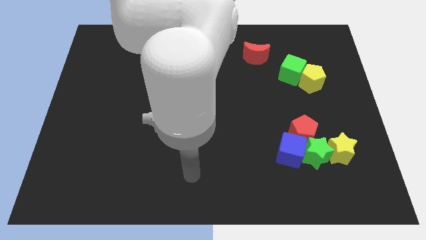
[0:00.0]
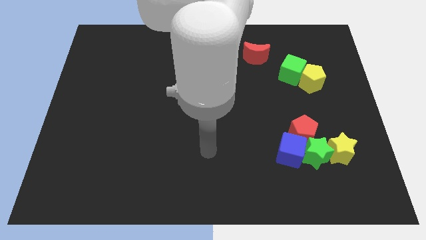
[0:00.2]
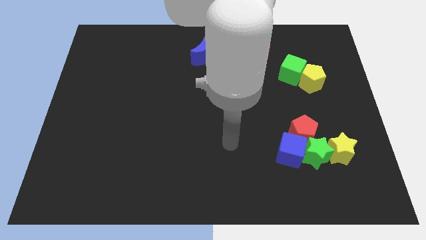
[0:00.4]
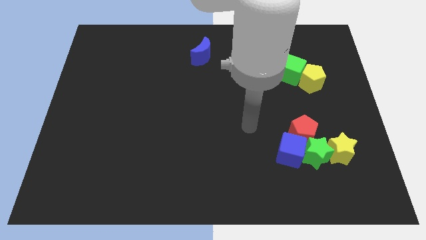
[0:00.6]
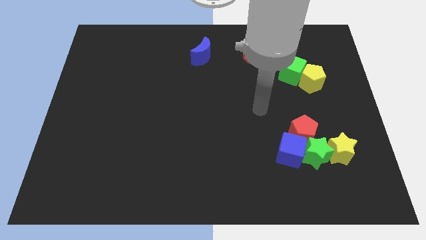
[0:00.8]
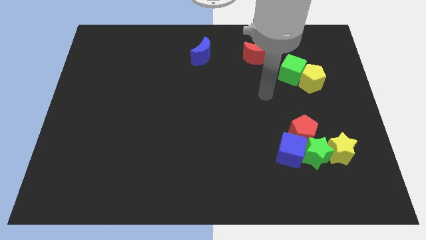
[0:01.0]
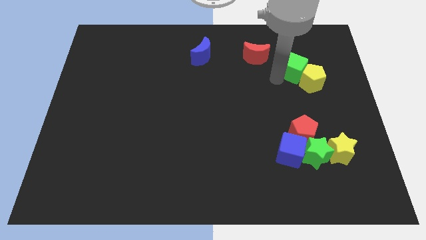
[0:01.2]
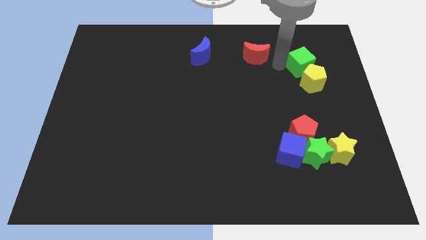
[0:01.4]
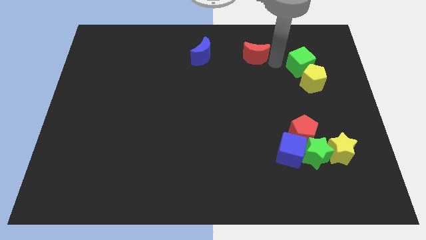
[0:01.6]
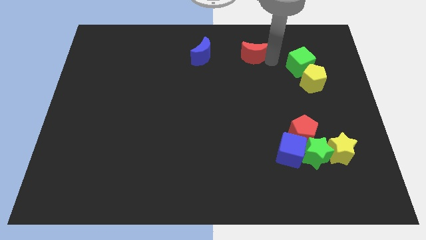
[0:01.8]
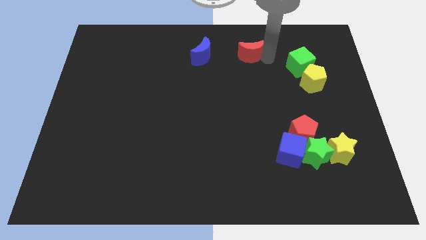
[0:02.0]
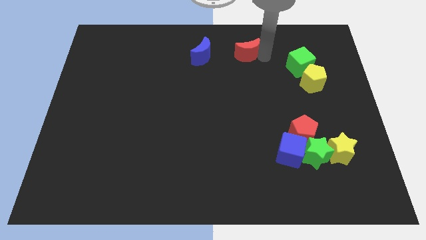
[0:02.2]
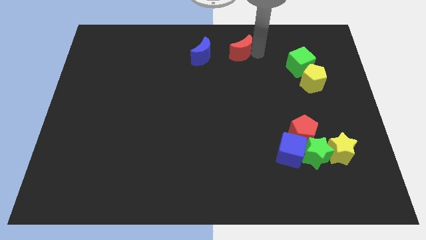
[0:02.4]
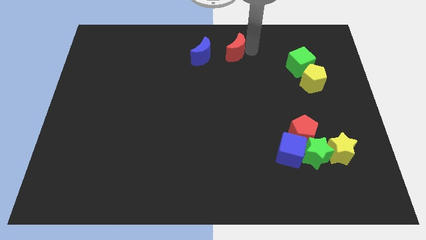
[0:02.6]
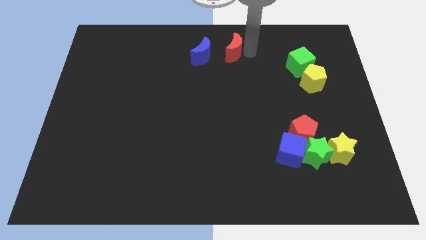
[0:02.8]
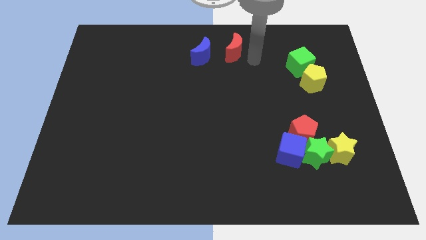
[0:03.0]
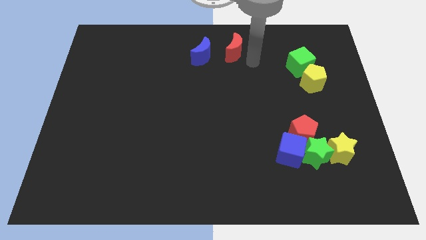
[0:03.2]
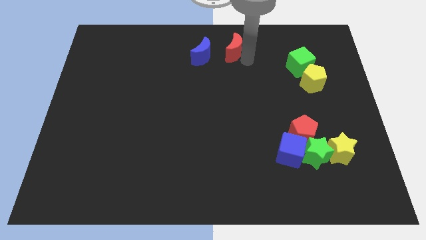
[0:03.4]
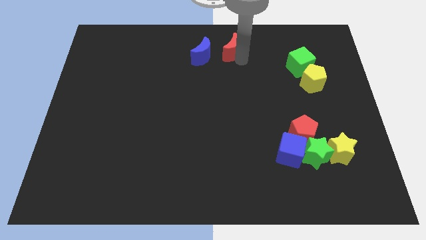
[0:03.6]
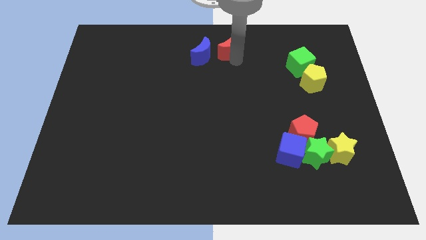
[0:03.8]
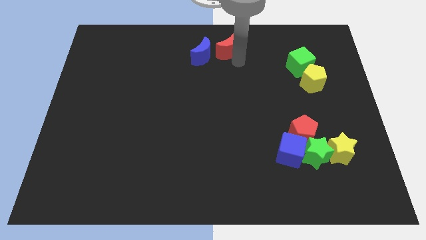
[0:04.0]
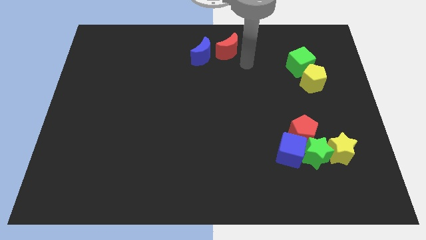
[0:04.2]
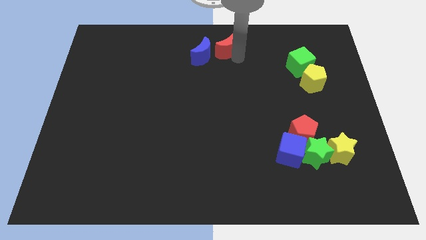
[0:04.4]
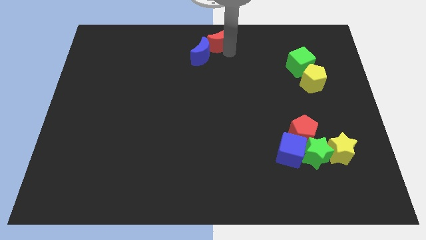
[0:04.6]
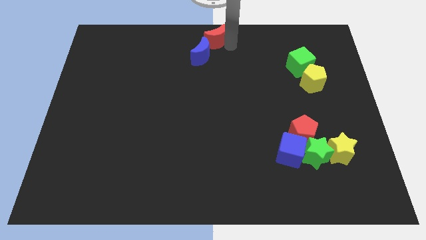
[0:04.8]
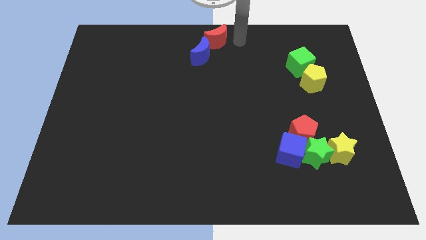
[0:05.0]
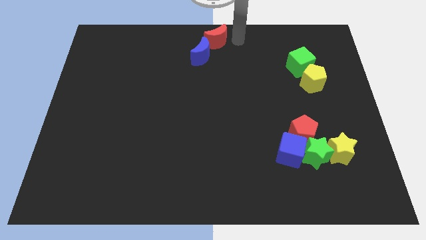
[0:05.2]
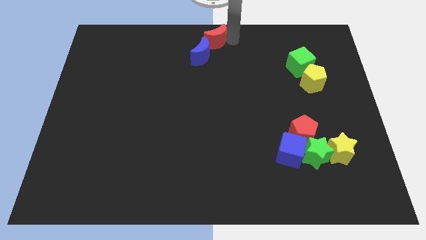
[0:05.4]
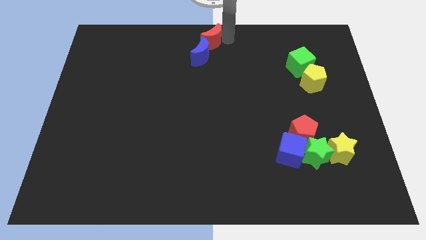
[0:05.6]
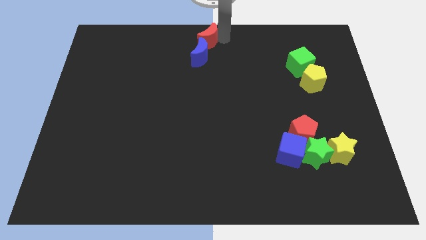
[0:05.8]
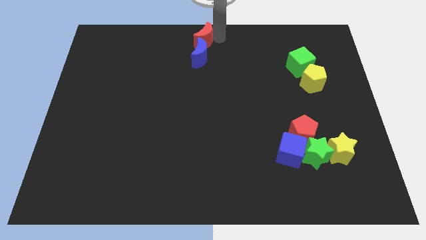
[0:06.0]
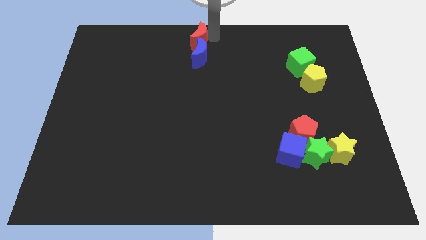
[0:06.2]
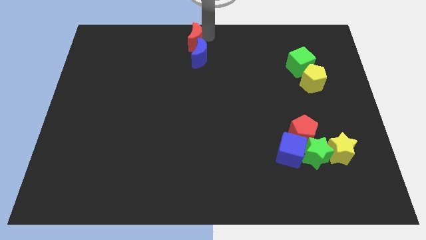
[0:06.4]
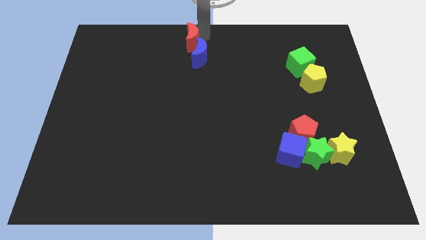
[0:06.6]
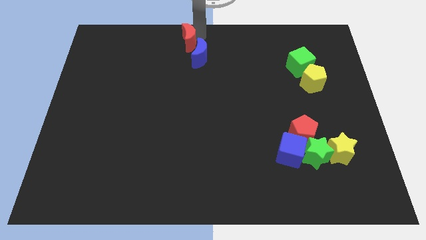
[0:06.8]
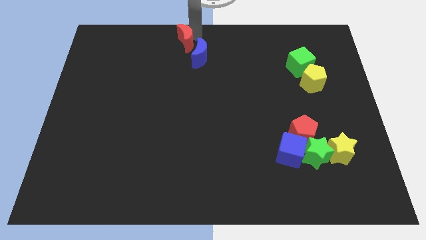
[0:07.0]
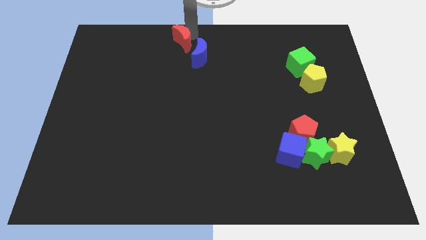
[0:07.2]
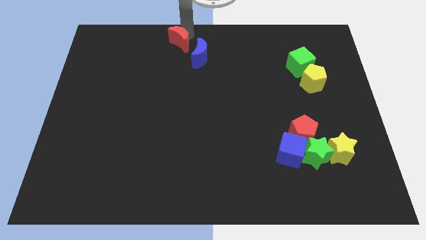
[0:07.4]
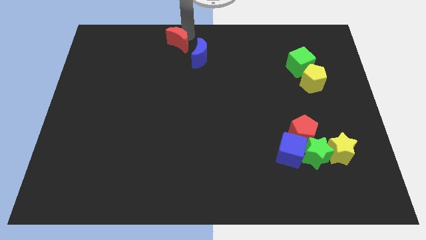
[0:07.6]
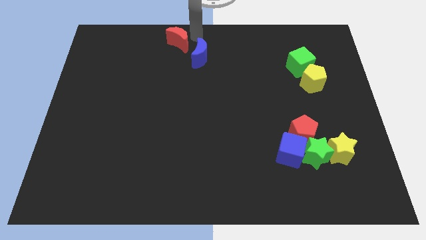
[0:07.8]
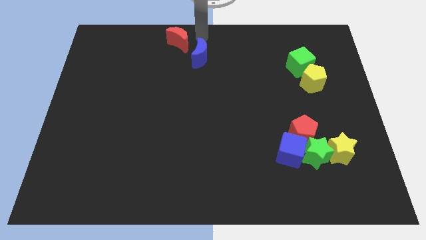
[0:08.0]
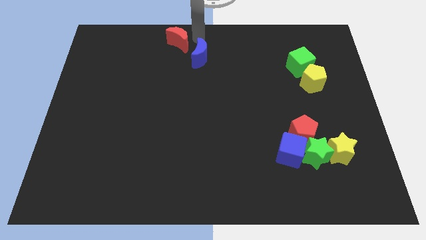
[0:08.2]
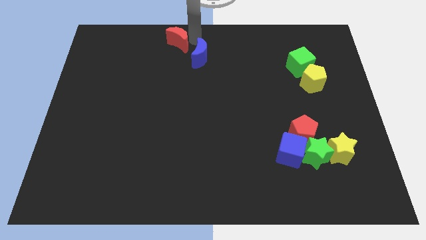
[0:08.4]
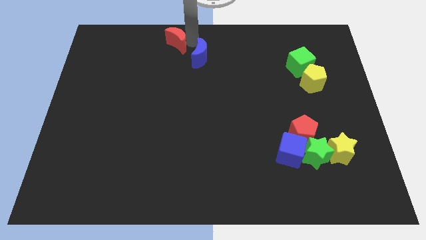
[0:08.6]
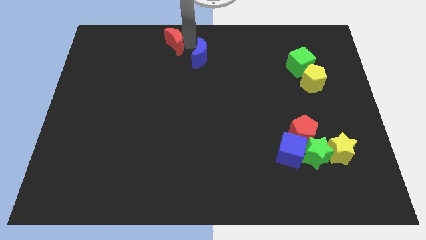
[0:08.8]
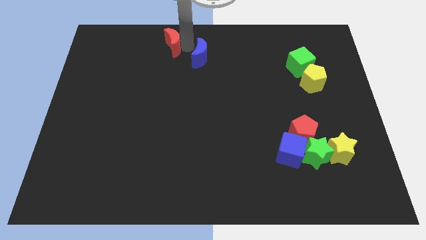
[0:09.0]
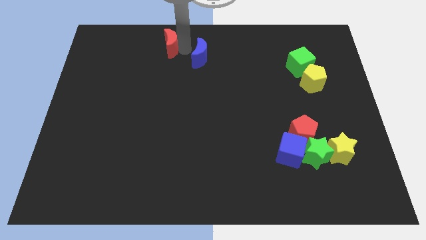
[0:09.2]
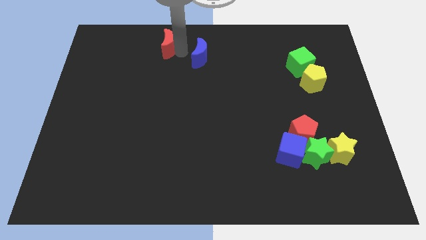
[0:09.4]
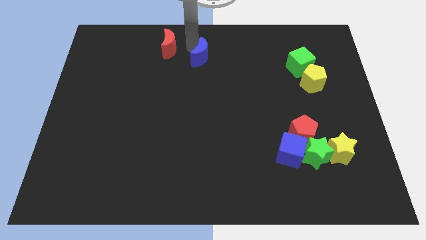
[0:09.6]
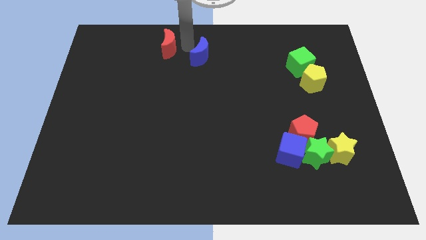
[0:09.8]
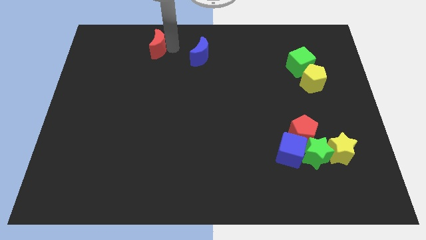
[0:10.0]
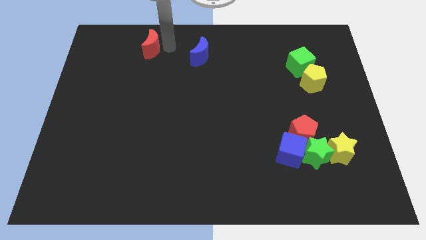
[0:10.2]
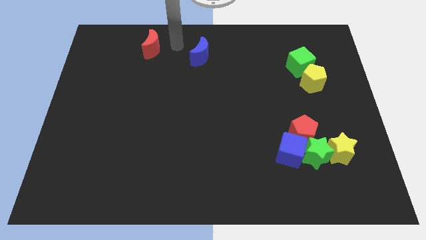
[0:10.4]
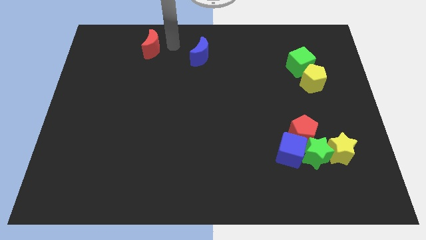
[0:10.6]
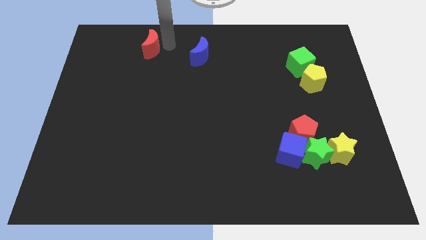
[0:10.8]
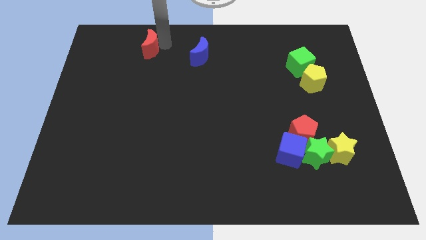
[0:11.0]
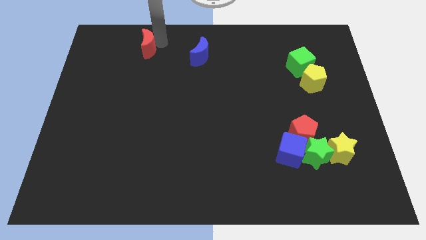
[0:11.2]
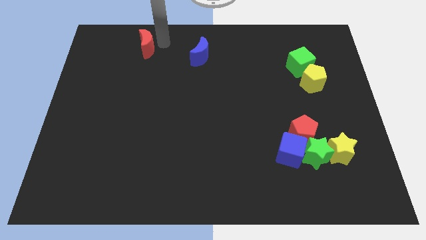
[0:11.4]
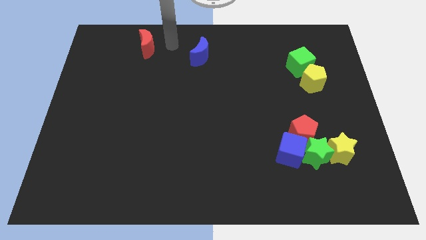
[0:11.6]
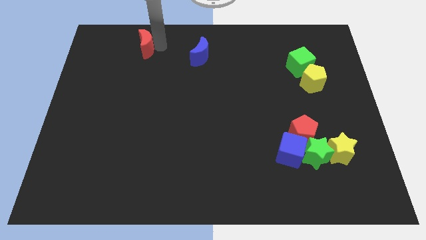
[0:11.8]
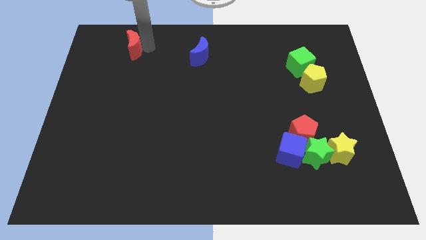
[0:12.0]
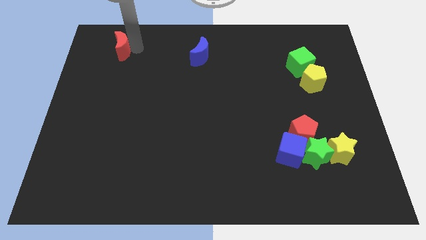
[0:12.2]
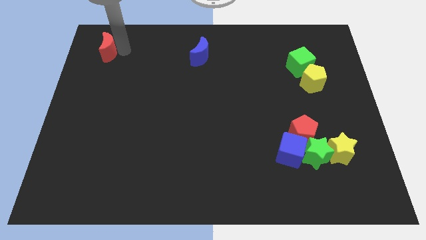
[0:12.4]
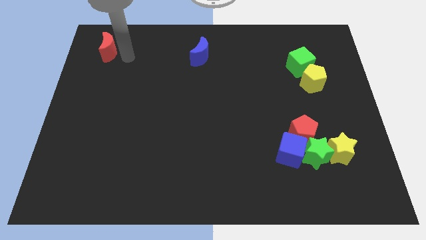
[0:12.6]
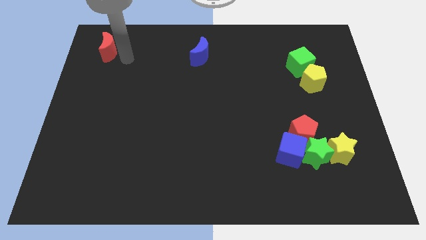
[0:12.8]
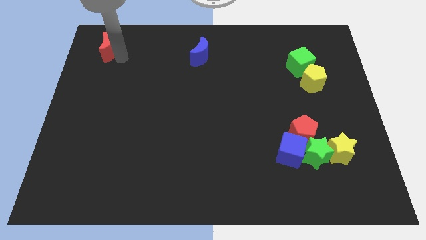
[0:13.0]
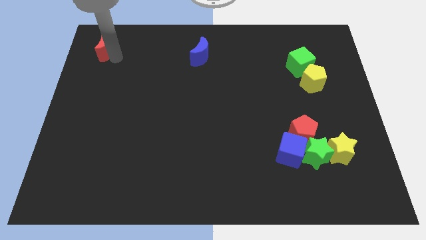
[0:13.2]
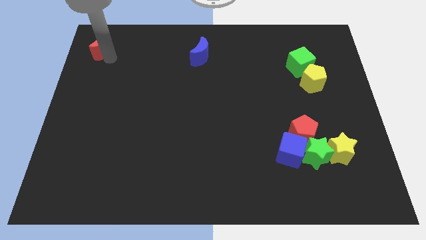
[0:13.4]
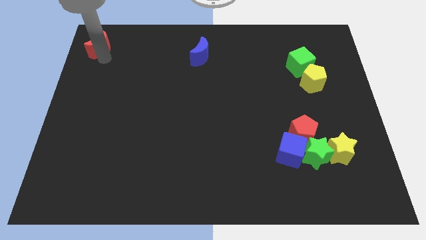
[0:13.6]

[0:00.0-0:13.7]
slide the red moon to the top left of the board

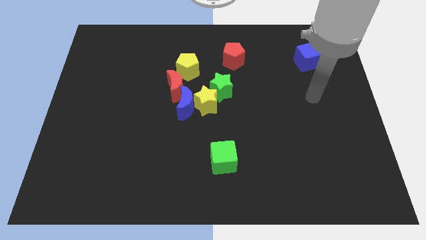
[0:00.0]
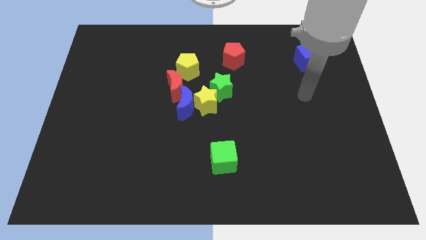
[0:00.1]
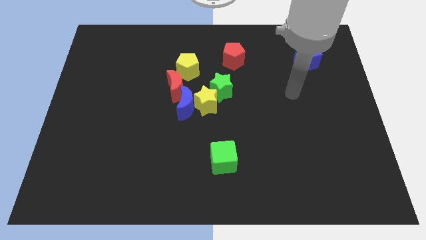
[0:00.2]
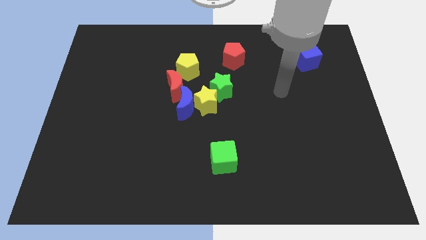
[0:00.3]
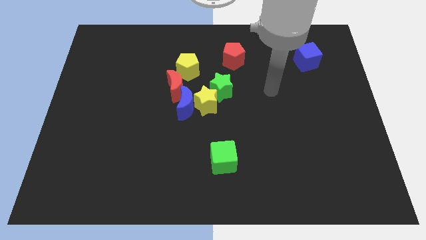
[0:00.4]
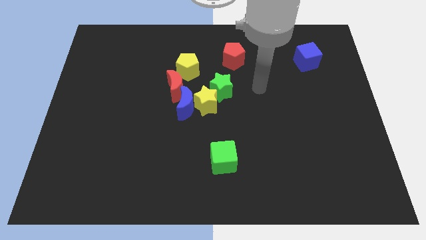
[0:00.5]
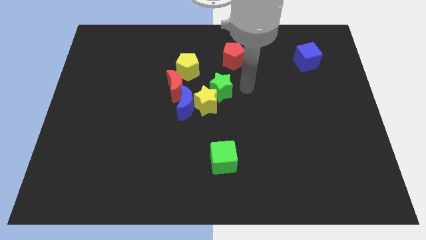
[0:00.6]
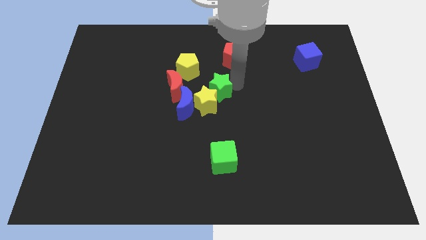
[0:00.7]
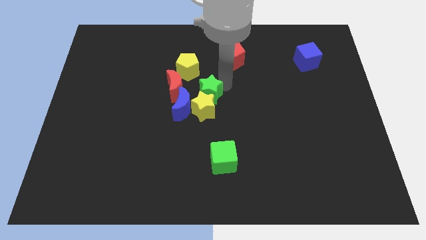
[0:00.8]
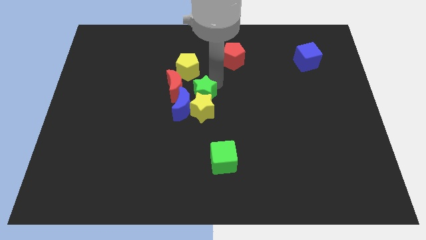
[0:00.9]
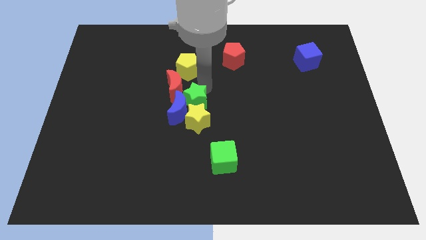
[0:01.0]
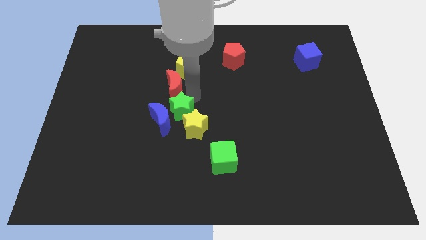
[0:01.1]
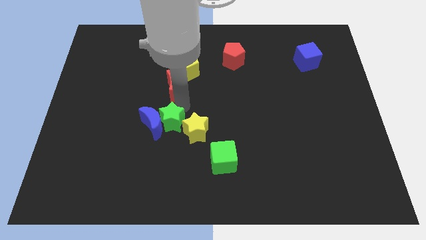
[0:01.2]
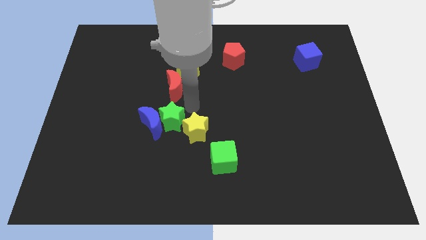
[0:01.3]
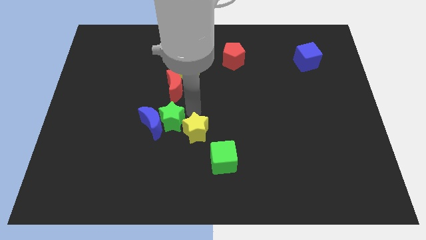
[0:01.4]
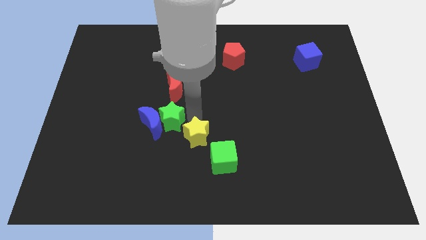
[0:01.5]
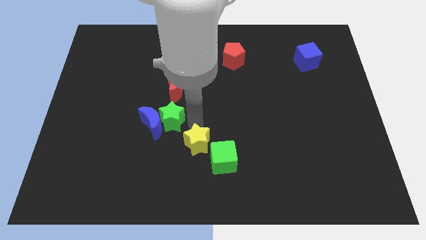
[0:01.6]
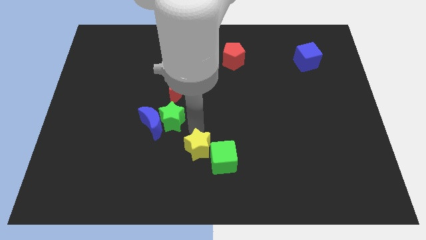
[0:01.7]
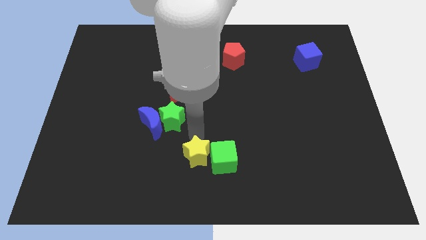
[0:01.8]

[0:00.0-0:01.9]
slide the yellow star to the bottom side
